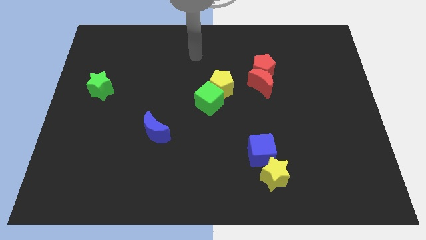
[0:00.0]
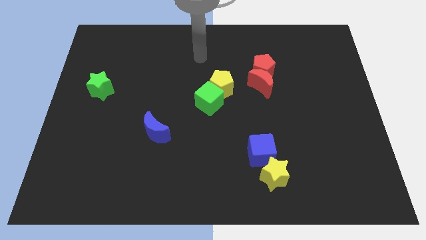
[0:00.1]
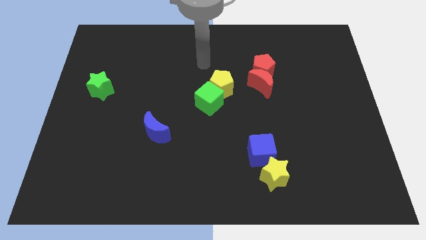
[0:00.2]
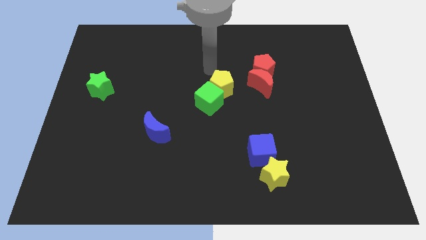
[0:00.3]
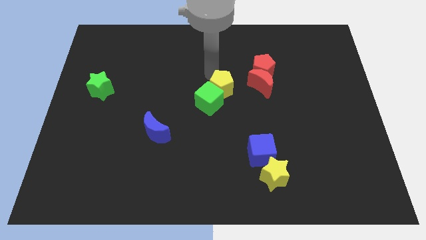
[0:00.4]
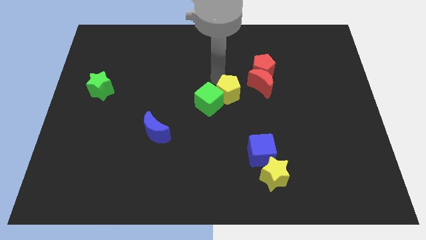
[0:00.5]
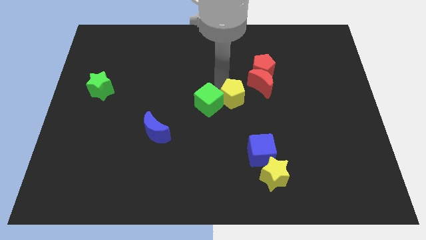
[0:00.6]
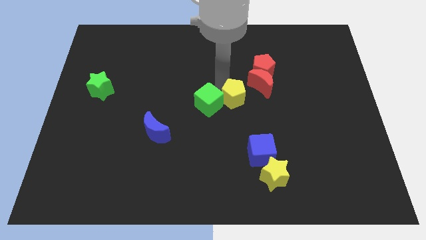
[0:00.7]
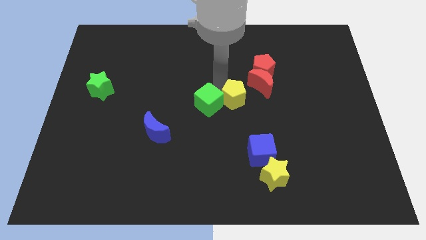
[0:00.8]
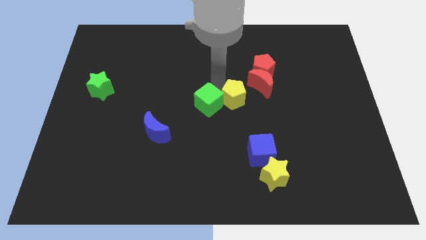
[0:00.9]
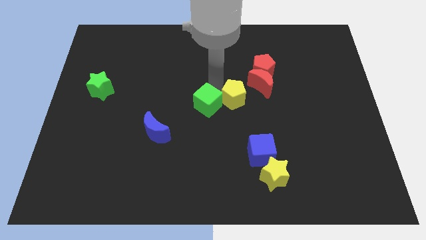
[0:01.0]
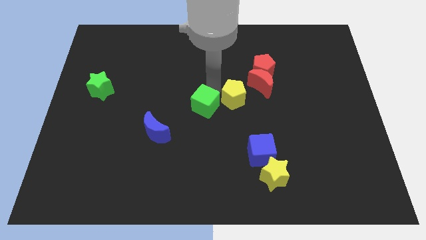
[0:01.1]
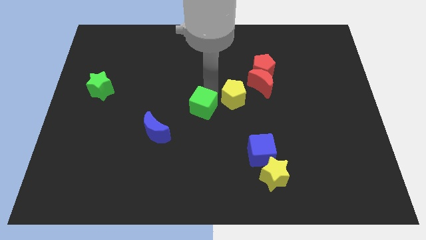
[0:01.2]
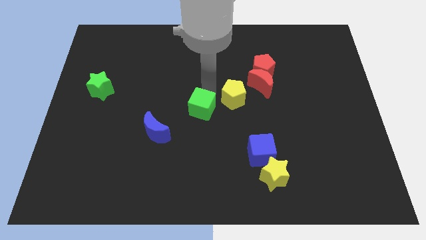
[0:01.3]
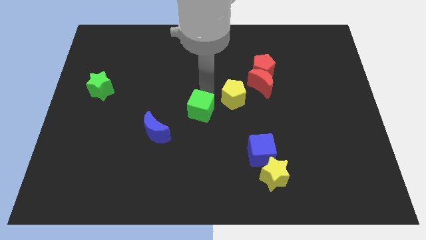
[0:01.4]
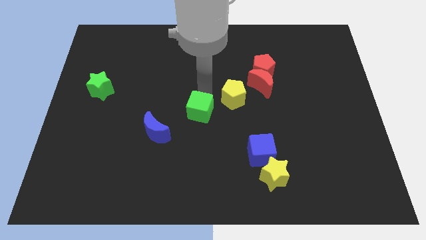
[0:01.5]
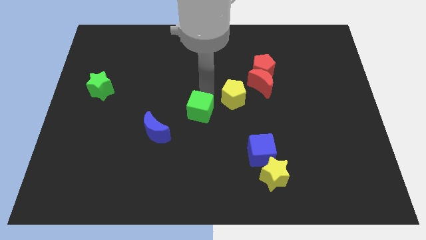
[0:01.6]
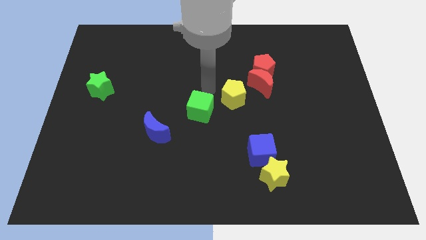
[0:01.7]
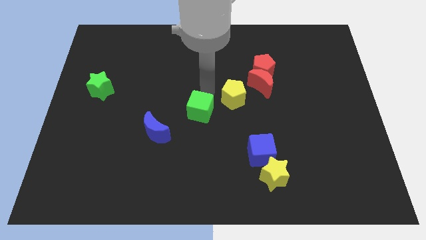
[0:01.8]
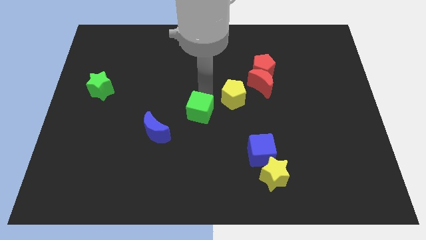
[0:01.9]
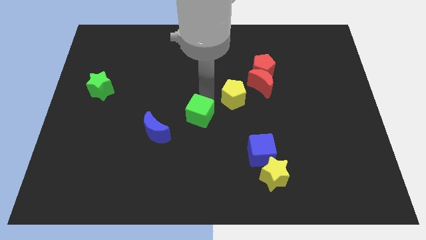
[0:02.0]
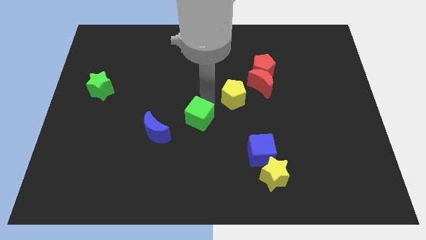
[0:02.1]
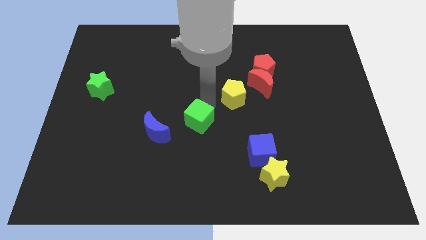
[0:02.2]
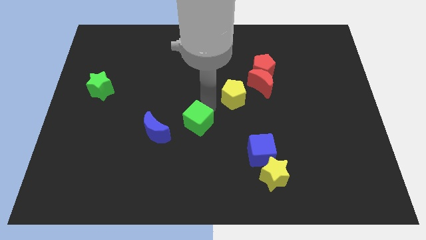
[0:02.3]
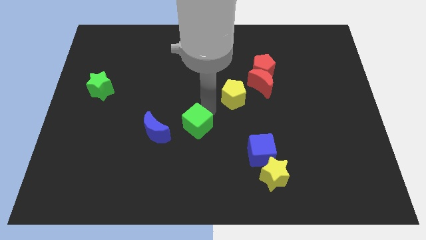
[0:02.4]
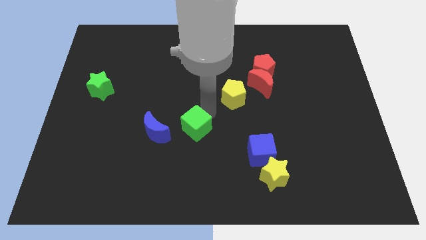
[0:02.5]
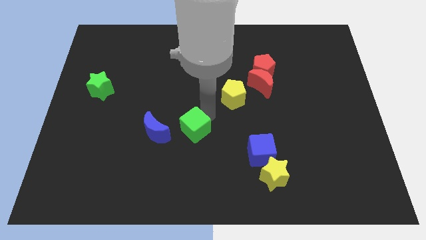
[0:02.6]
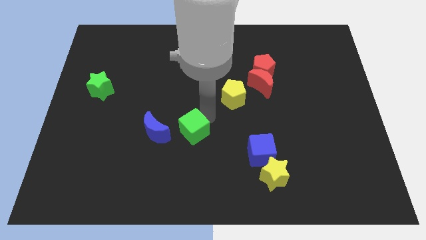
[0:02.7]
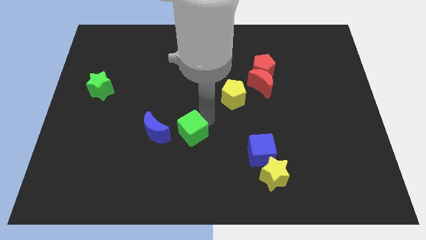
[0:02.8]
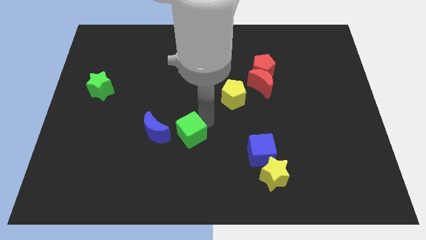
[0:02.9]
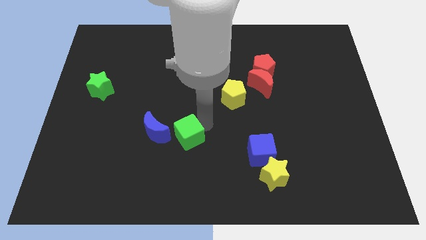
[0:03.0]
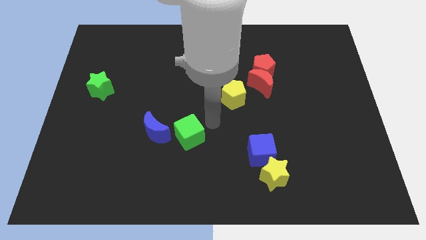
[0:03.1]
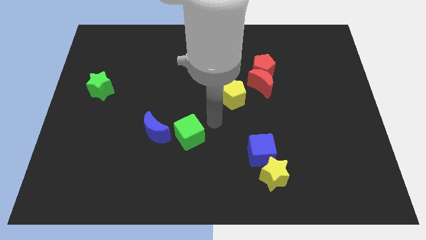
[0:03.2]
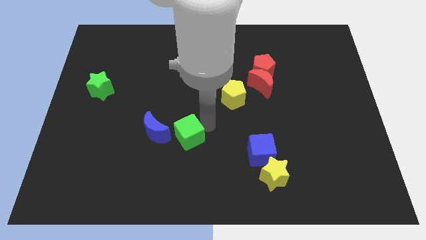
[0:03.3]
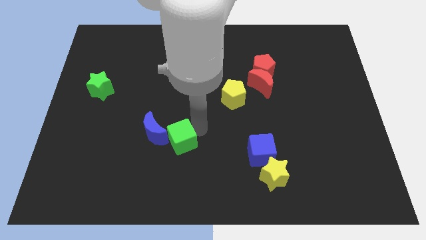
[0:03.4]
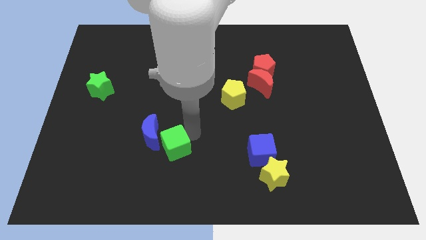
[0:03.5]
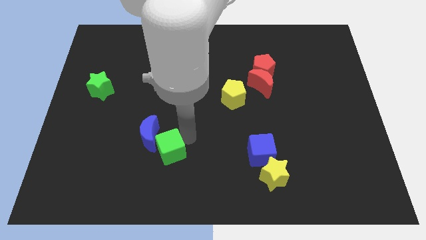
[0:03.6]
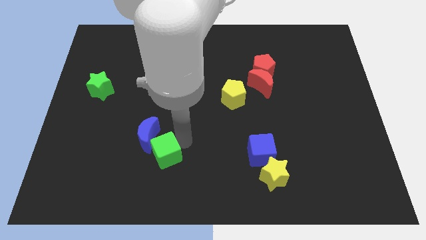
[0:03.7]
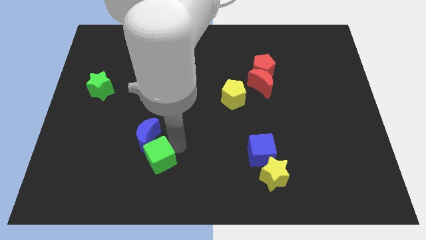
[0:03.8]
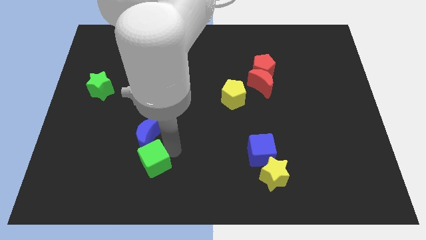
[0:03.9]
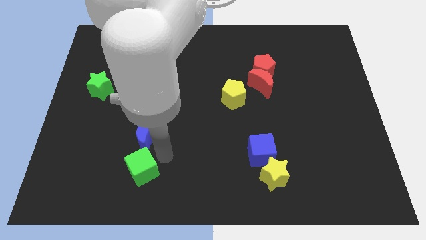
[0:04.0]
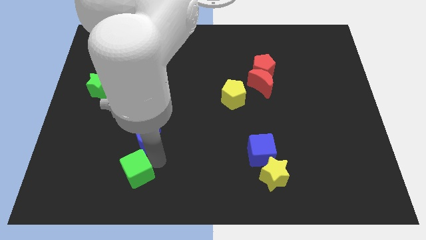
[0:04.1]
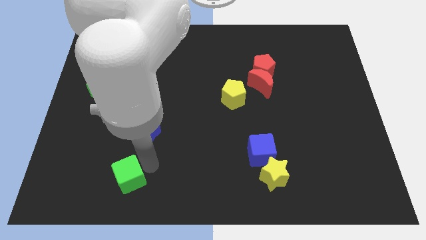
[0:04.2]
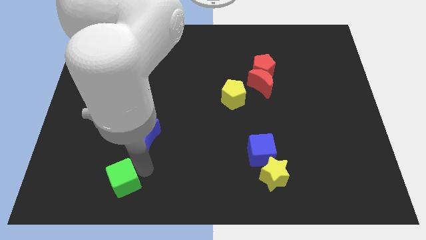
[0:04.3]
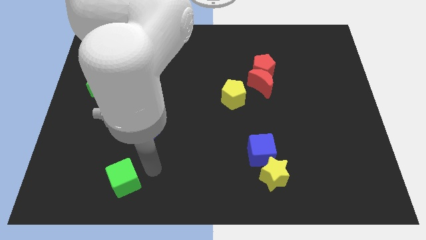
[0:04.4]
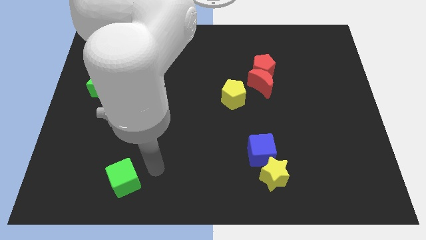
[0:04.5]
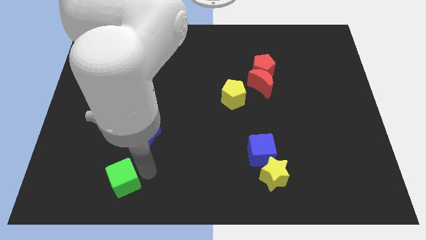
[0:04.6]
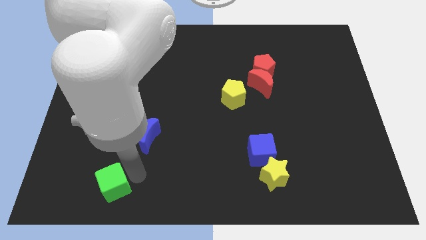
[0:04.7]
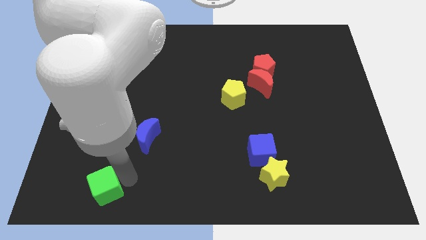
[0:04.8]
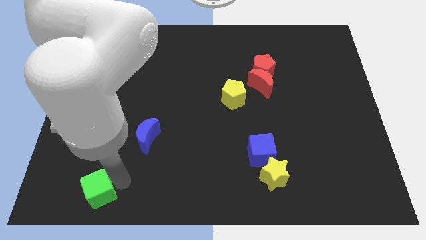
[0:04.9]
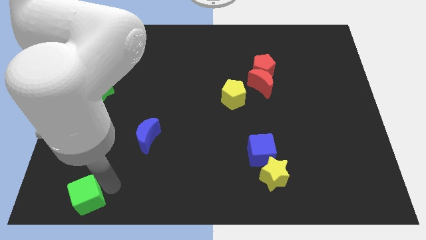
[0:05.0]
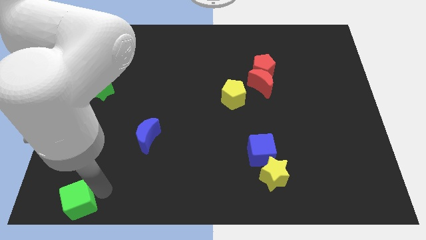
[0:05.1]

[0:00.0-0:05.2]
move the green cube to the lower left corner

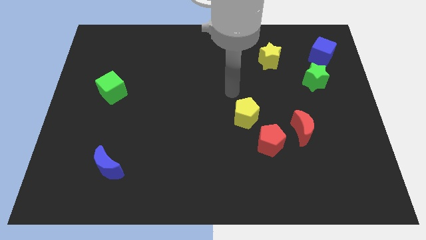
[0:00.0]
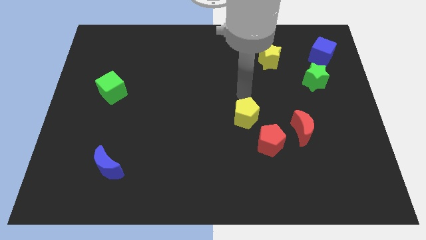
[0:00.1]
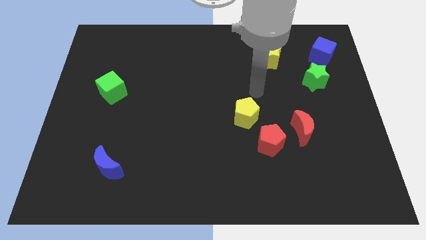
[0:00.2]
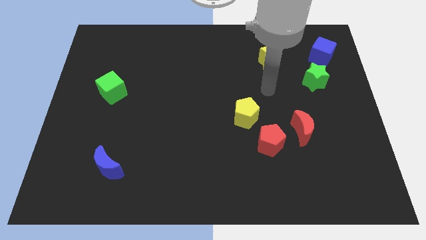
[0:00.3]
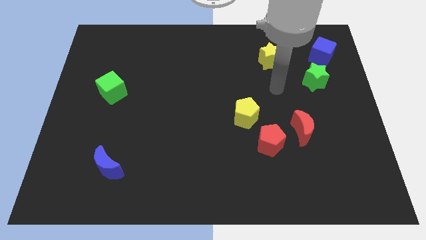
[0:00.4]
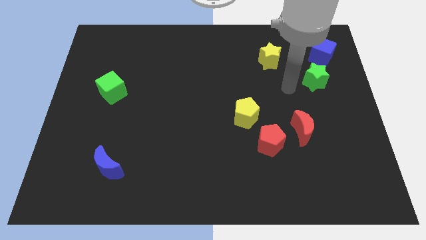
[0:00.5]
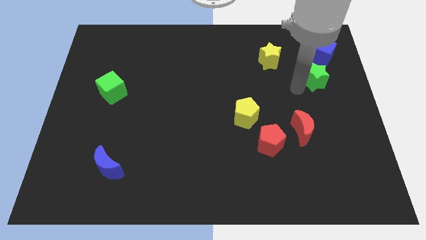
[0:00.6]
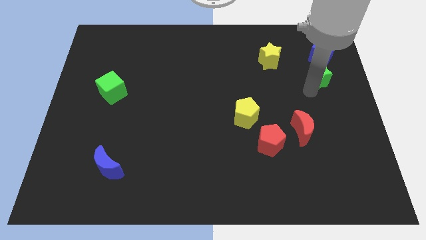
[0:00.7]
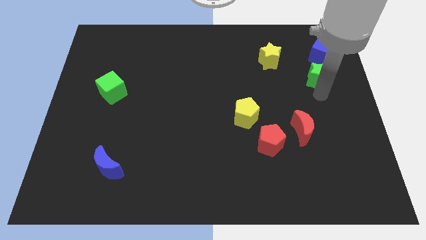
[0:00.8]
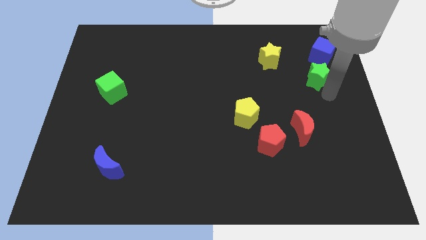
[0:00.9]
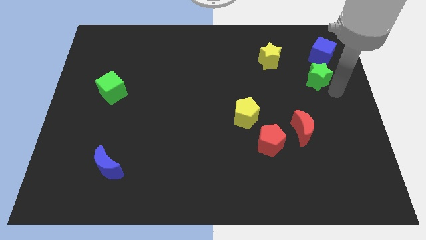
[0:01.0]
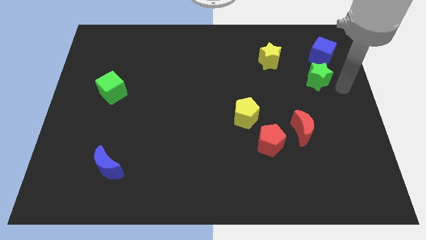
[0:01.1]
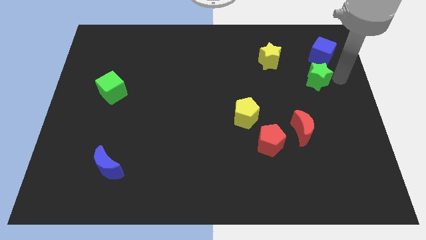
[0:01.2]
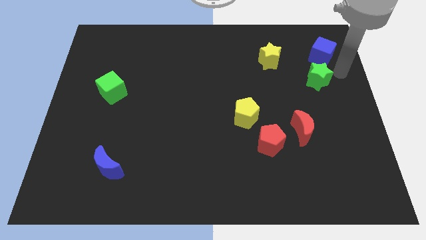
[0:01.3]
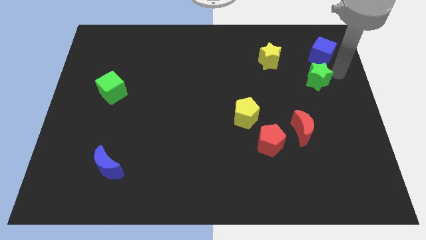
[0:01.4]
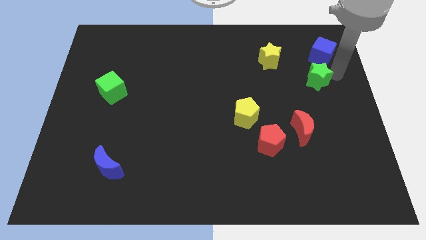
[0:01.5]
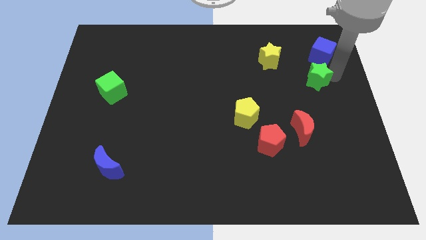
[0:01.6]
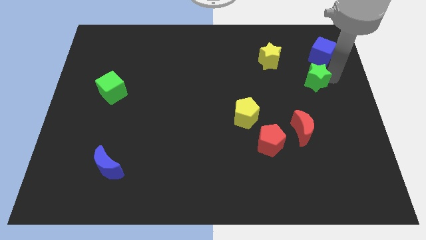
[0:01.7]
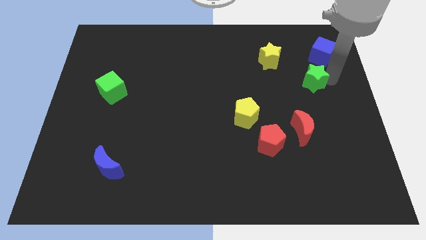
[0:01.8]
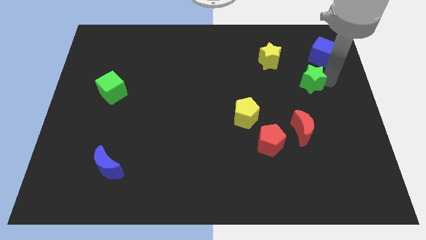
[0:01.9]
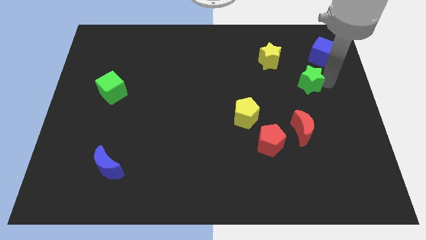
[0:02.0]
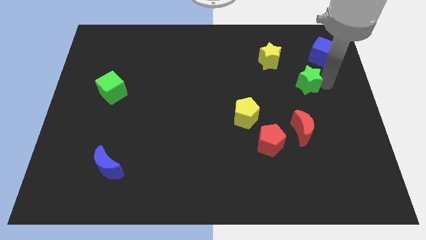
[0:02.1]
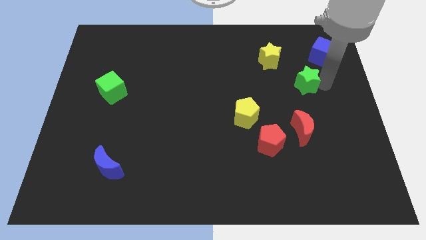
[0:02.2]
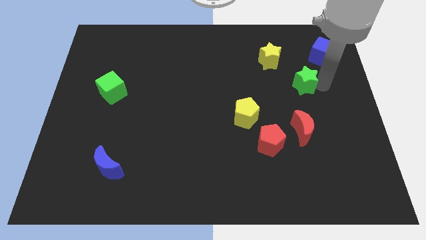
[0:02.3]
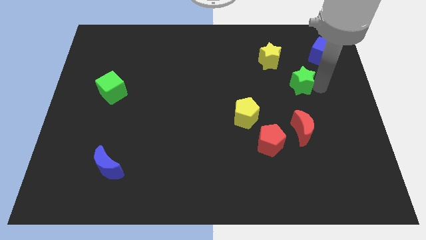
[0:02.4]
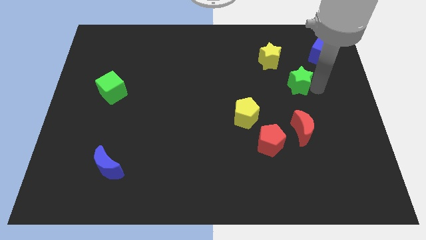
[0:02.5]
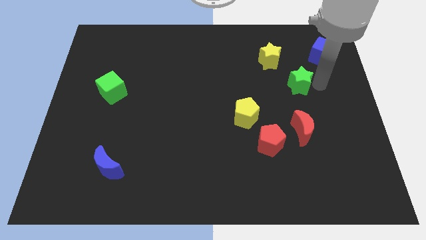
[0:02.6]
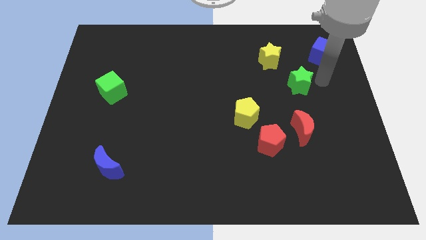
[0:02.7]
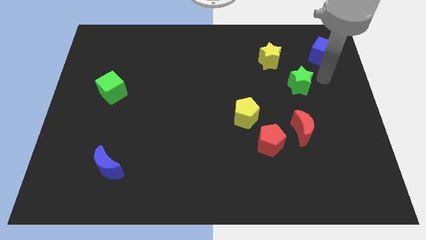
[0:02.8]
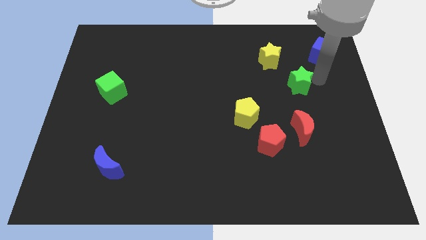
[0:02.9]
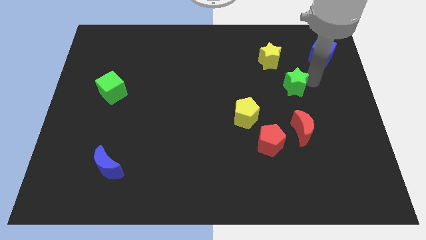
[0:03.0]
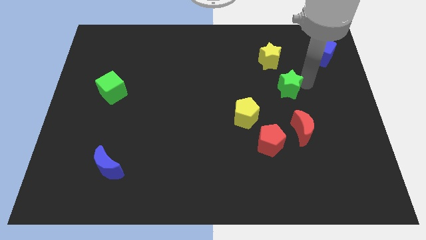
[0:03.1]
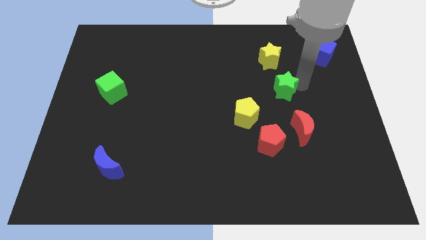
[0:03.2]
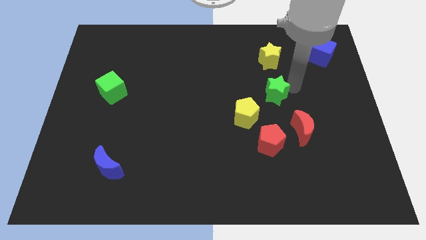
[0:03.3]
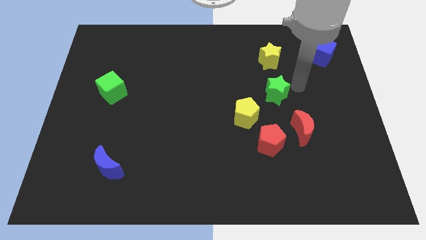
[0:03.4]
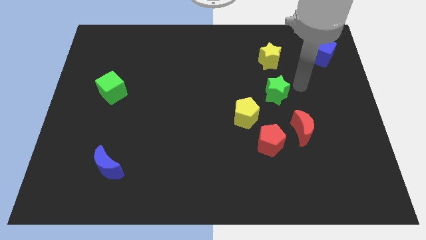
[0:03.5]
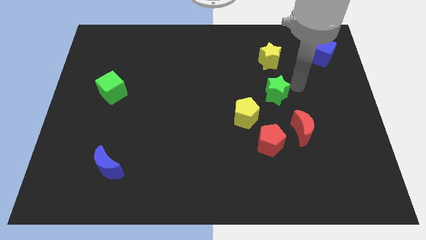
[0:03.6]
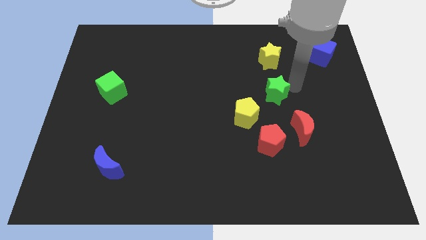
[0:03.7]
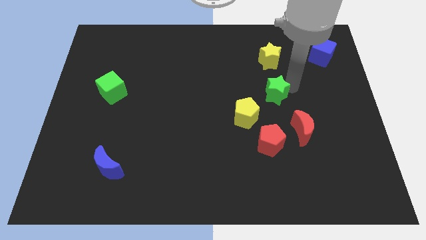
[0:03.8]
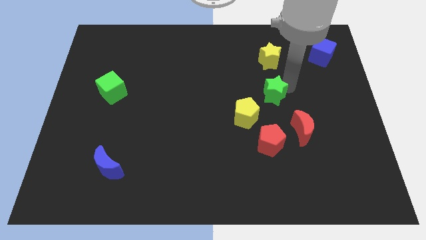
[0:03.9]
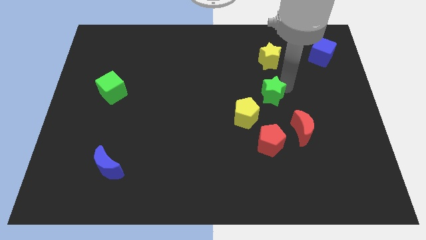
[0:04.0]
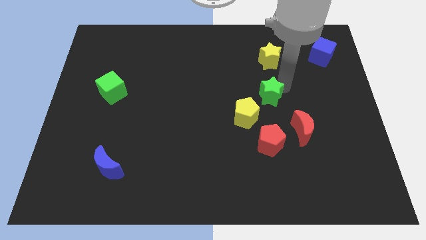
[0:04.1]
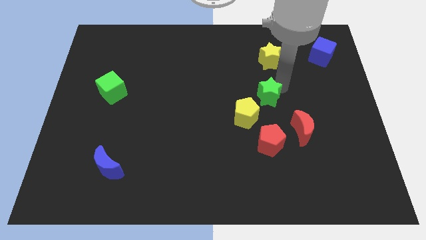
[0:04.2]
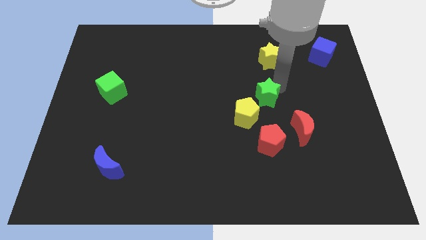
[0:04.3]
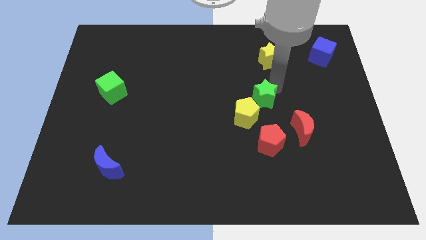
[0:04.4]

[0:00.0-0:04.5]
put the green star to the center of the board
